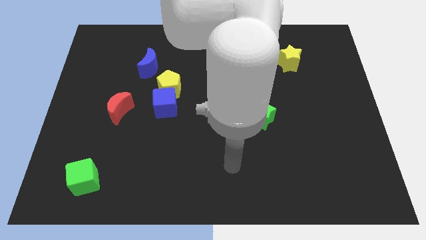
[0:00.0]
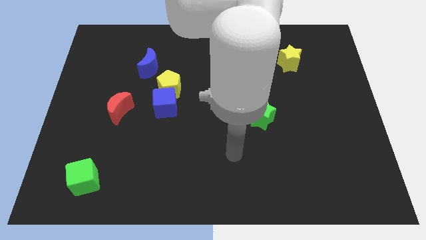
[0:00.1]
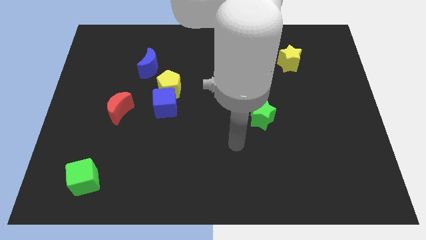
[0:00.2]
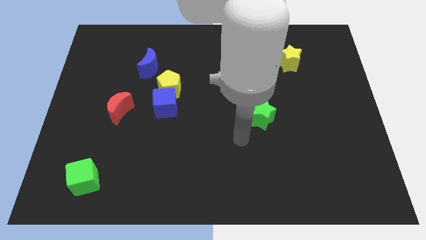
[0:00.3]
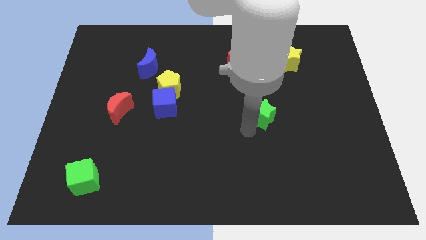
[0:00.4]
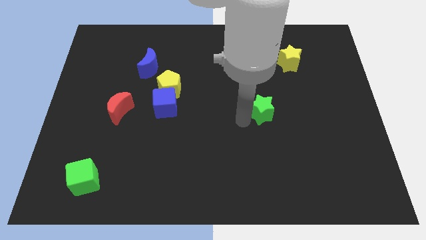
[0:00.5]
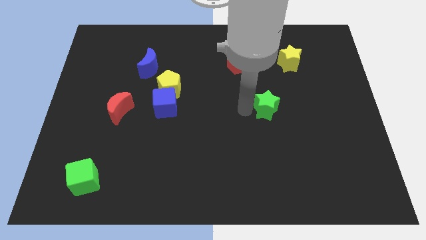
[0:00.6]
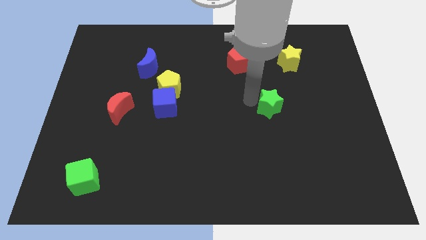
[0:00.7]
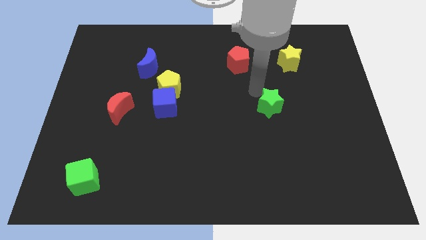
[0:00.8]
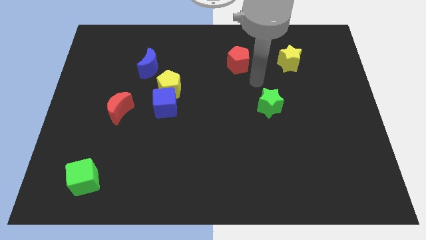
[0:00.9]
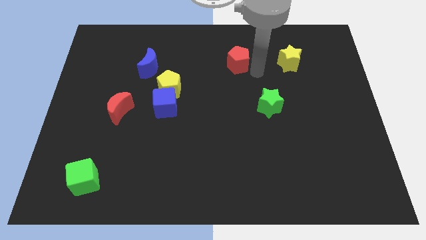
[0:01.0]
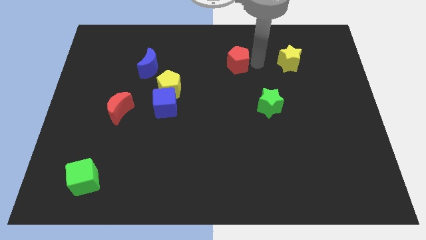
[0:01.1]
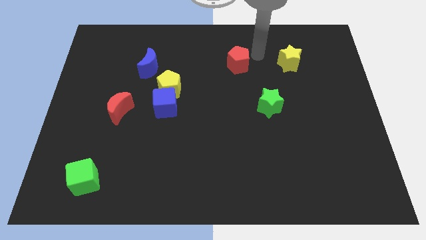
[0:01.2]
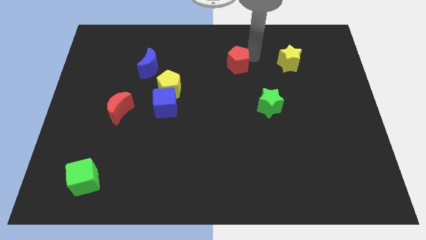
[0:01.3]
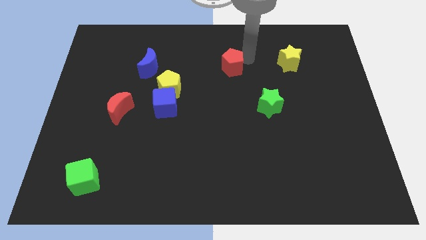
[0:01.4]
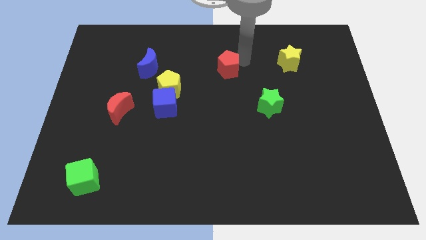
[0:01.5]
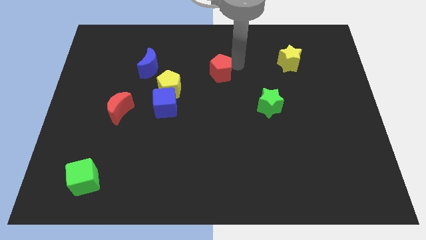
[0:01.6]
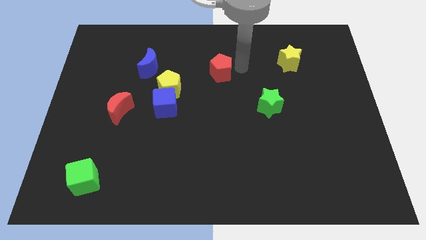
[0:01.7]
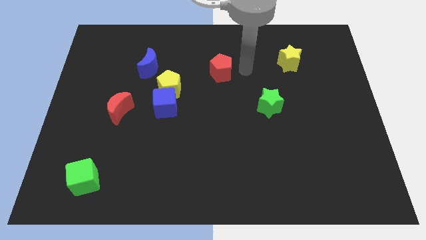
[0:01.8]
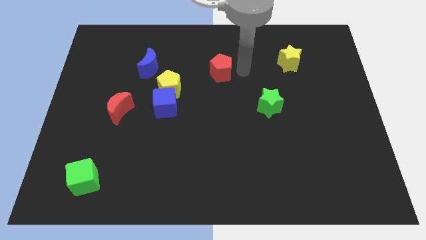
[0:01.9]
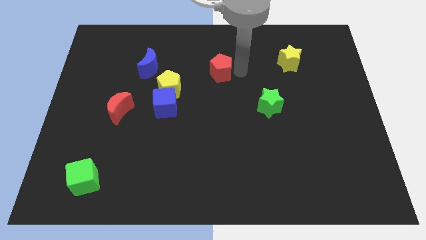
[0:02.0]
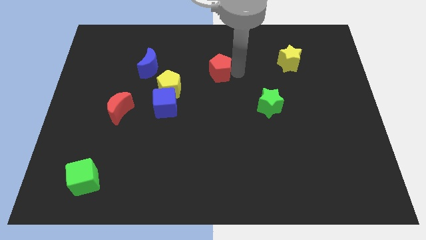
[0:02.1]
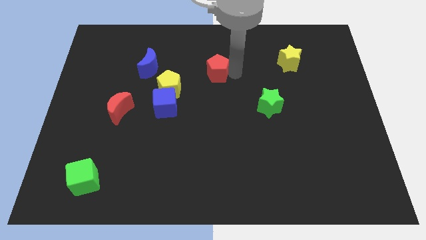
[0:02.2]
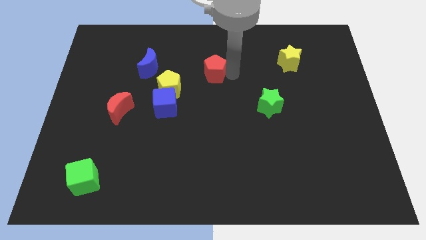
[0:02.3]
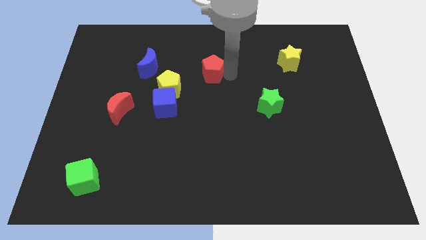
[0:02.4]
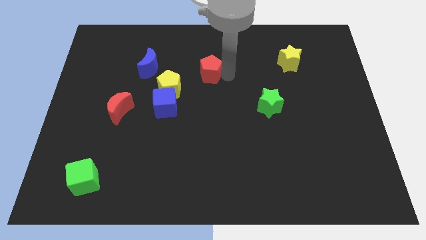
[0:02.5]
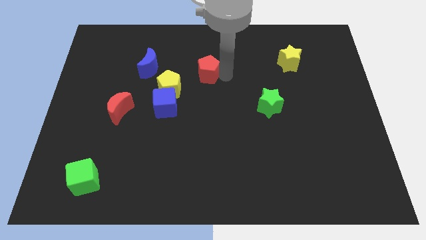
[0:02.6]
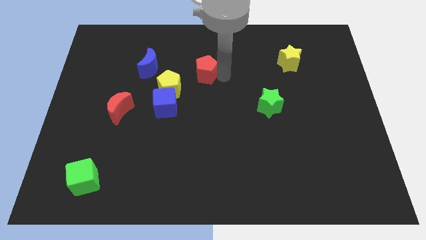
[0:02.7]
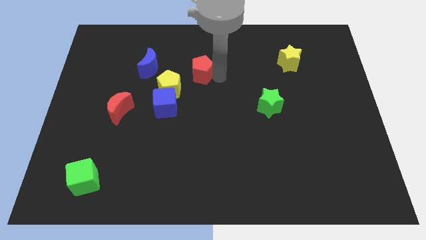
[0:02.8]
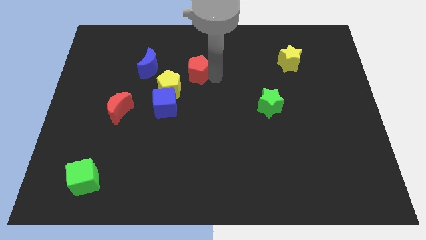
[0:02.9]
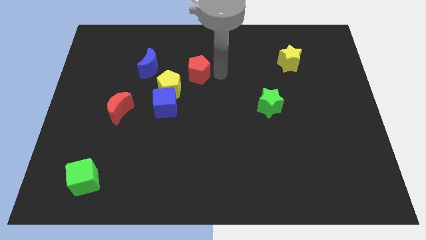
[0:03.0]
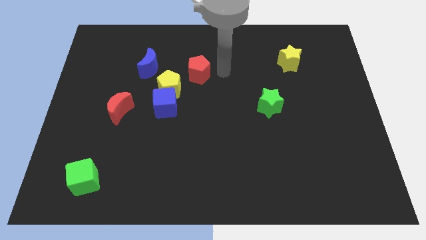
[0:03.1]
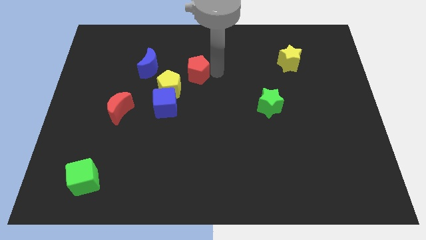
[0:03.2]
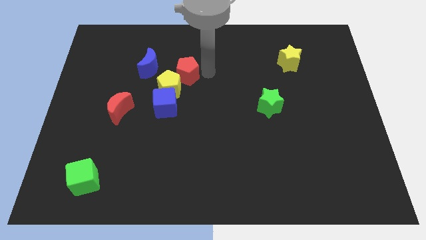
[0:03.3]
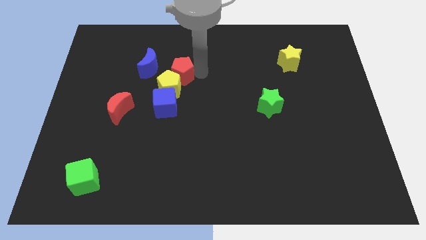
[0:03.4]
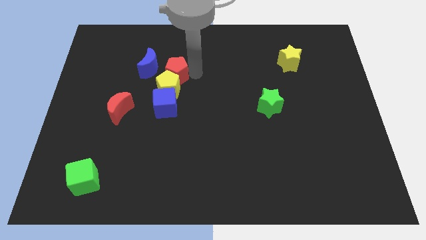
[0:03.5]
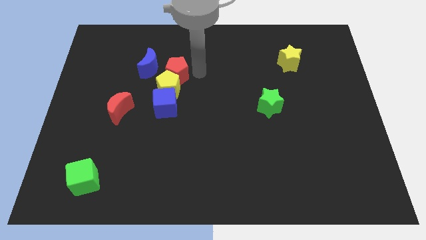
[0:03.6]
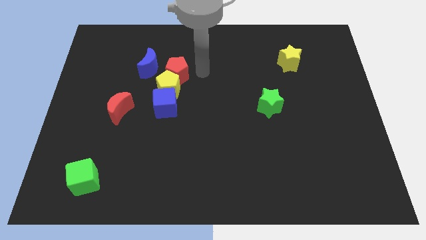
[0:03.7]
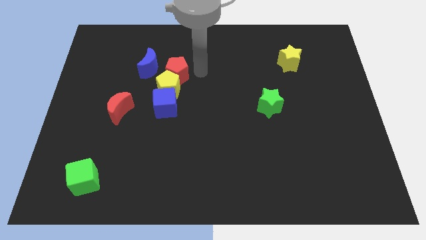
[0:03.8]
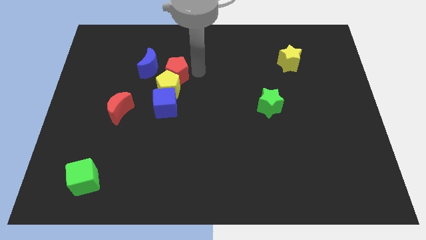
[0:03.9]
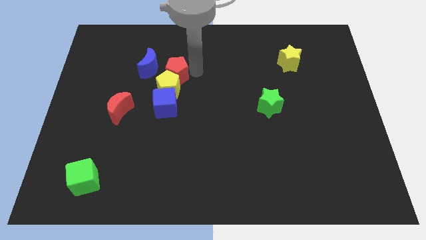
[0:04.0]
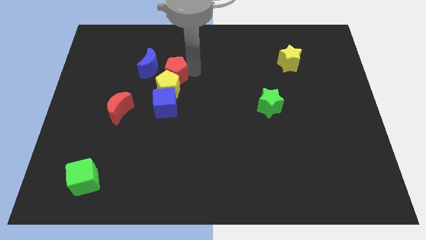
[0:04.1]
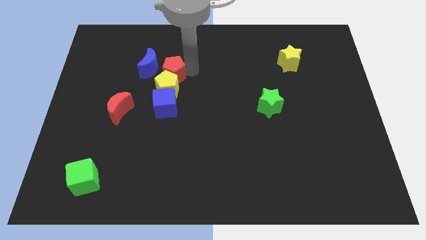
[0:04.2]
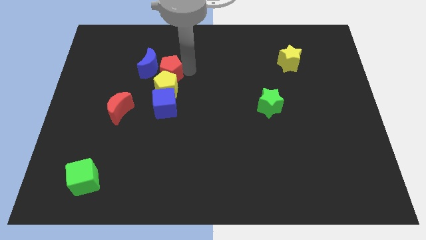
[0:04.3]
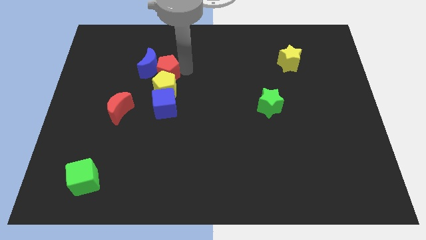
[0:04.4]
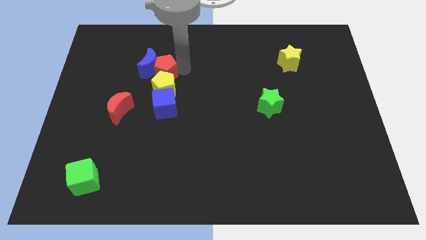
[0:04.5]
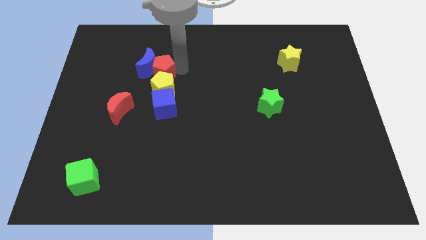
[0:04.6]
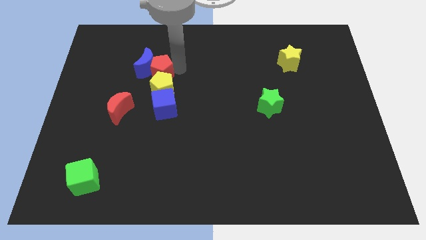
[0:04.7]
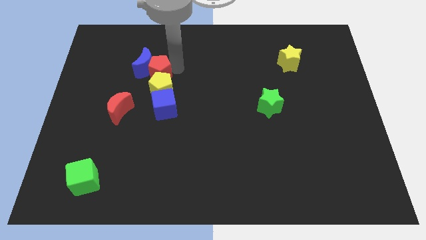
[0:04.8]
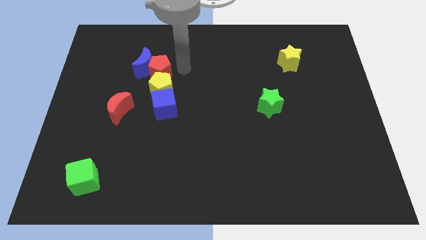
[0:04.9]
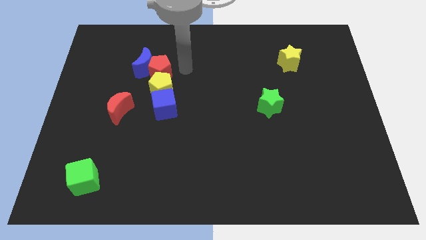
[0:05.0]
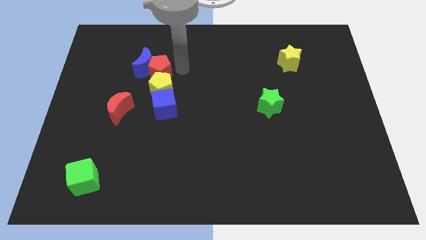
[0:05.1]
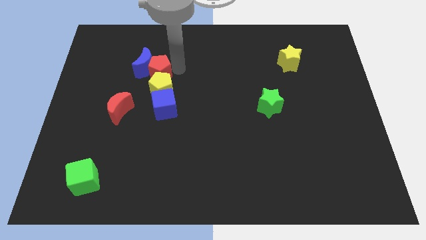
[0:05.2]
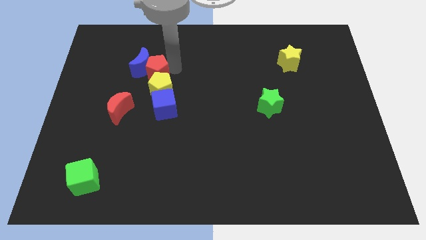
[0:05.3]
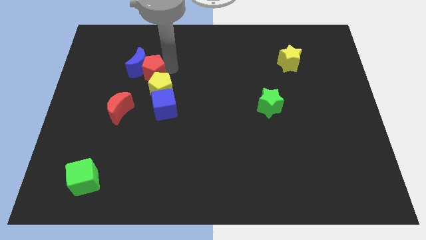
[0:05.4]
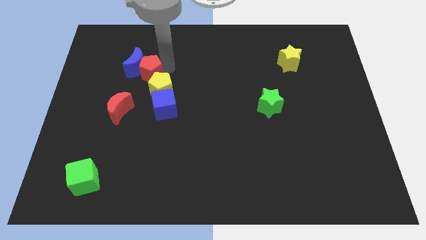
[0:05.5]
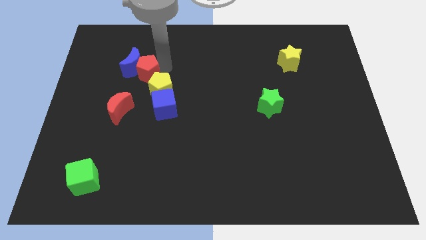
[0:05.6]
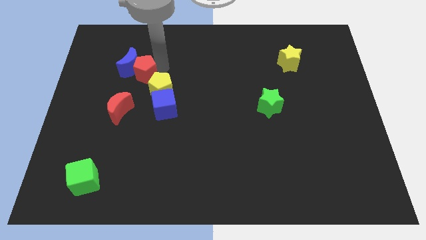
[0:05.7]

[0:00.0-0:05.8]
slide the red pentagon above the red moon
